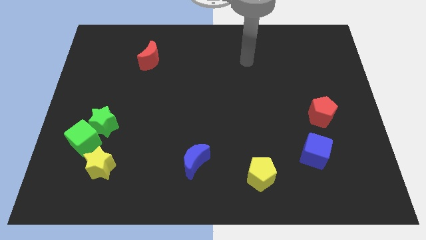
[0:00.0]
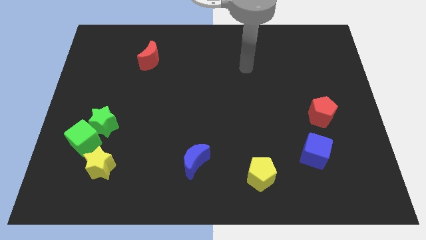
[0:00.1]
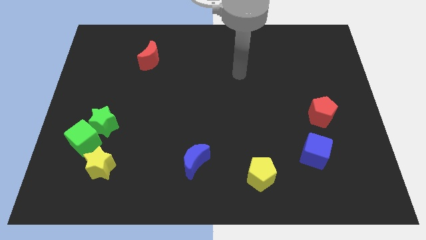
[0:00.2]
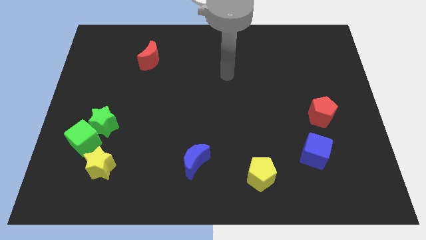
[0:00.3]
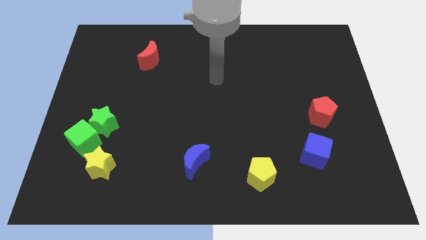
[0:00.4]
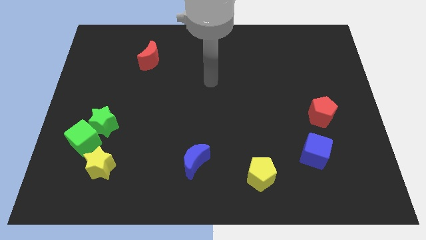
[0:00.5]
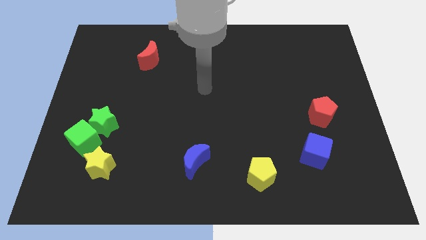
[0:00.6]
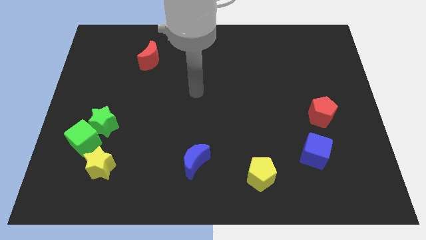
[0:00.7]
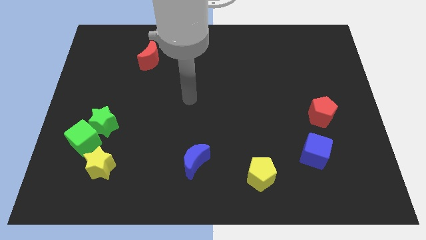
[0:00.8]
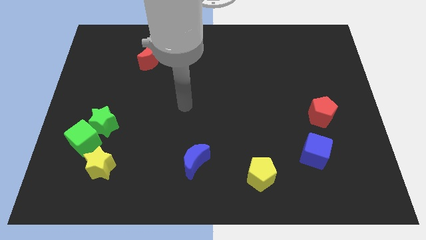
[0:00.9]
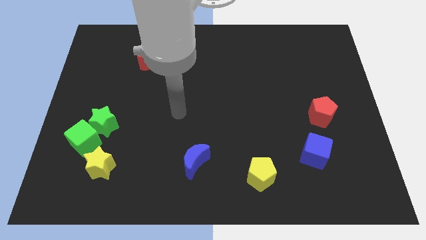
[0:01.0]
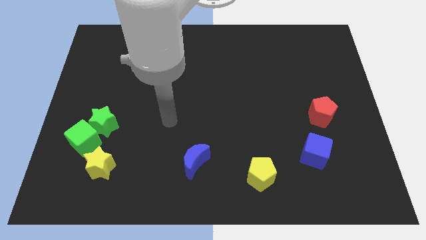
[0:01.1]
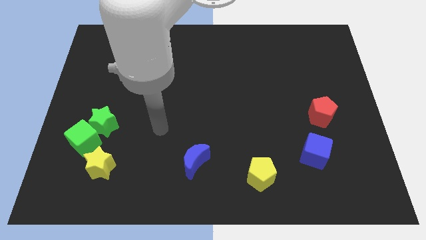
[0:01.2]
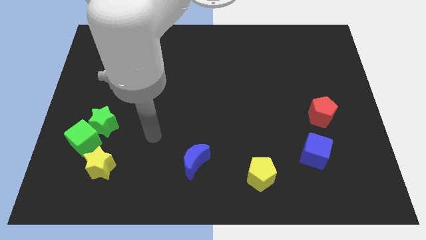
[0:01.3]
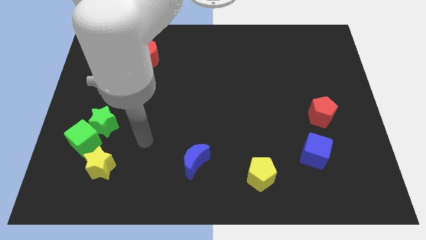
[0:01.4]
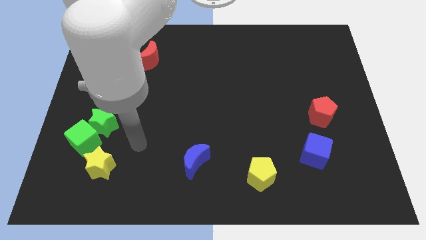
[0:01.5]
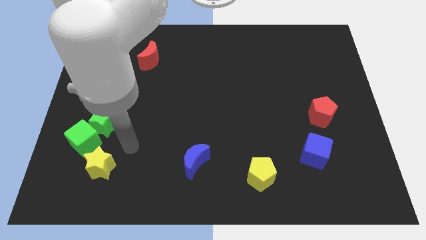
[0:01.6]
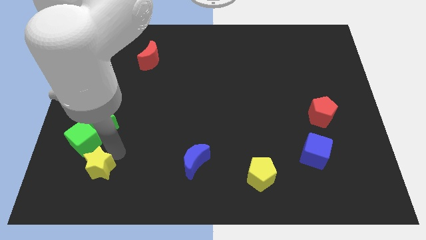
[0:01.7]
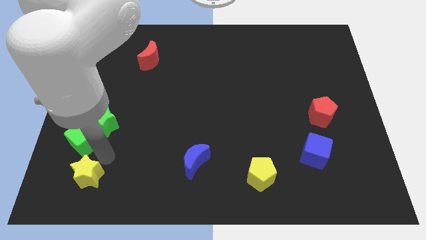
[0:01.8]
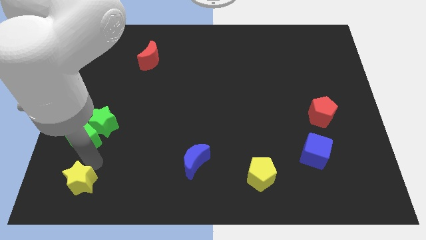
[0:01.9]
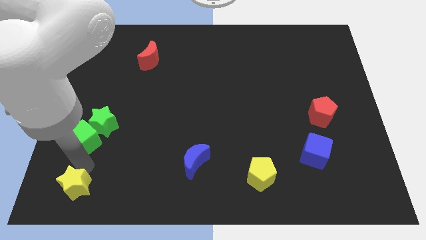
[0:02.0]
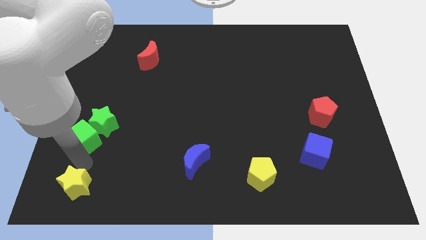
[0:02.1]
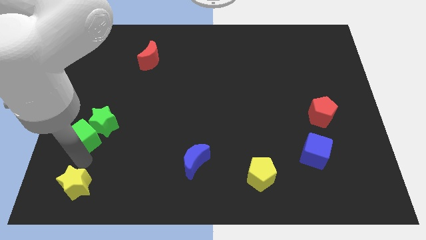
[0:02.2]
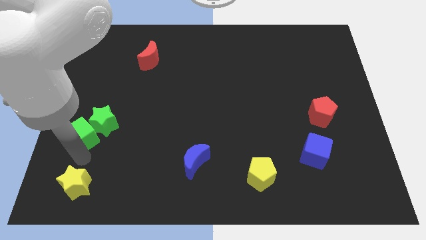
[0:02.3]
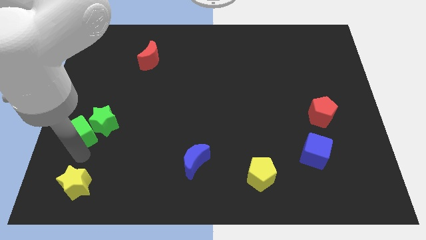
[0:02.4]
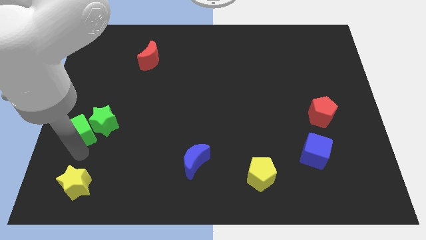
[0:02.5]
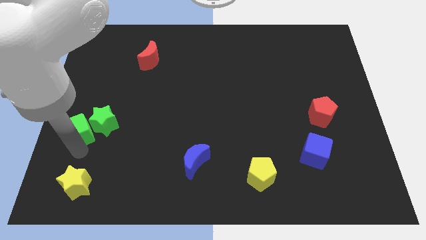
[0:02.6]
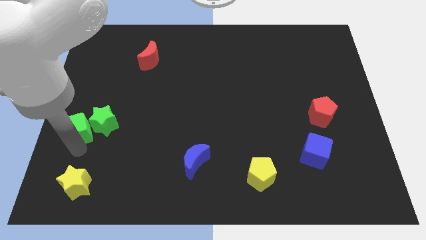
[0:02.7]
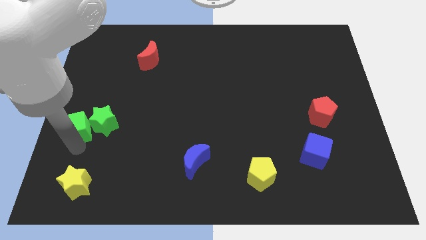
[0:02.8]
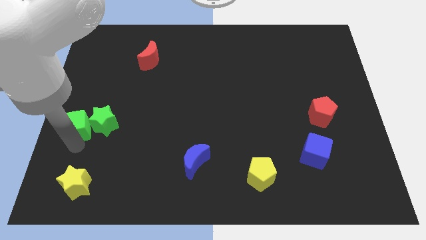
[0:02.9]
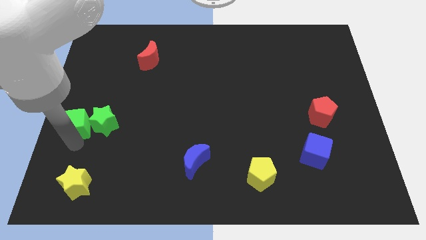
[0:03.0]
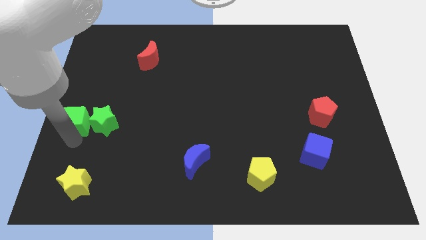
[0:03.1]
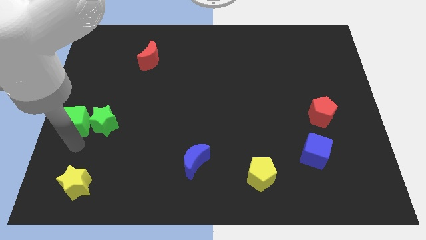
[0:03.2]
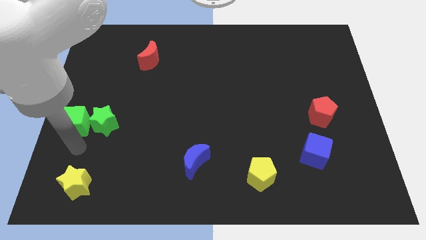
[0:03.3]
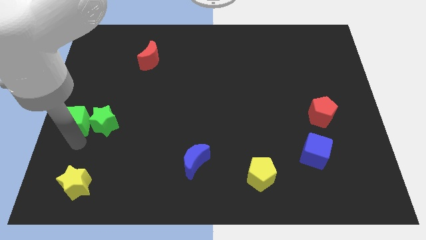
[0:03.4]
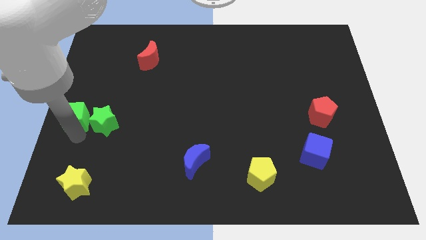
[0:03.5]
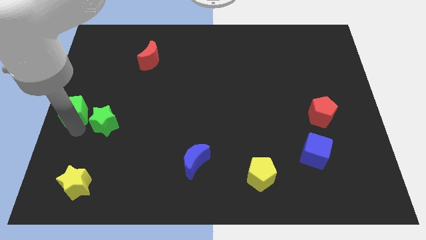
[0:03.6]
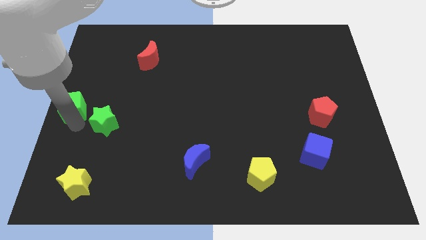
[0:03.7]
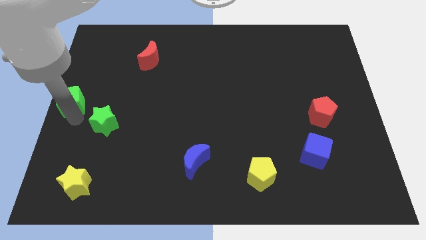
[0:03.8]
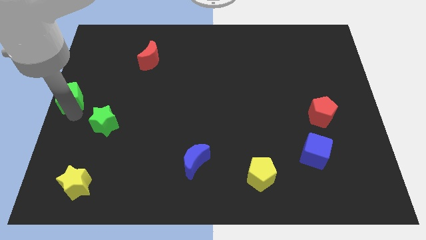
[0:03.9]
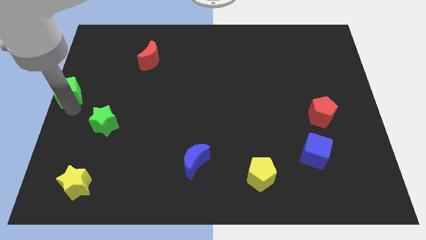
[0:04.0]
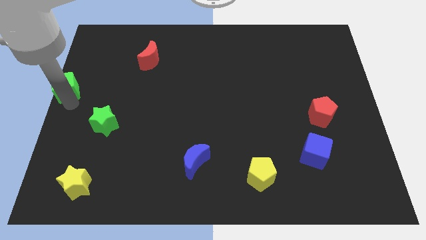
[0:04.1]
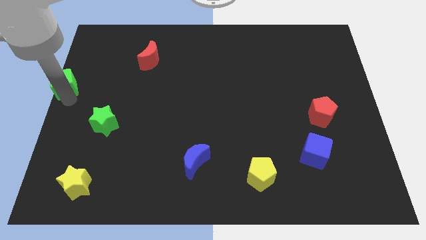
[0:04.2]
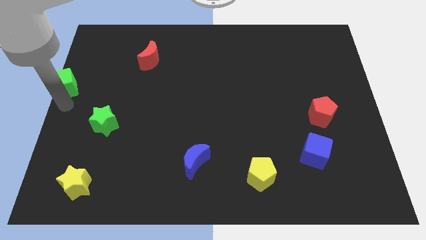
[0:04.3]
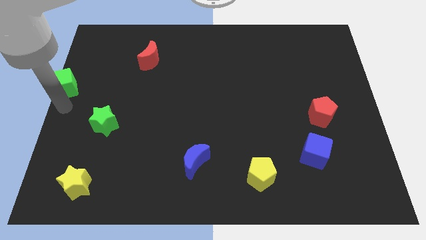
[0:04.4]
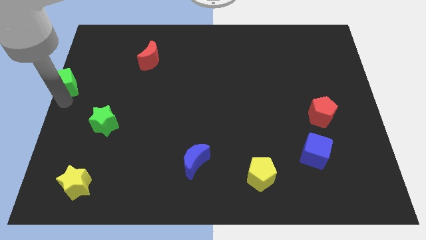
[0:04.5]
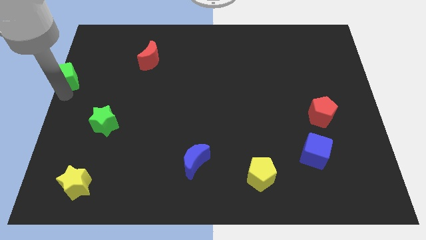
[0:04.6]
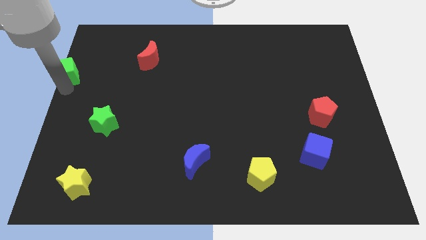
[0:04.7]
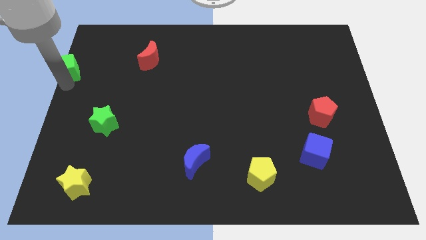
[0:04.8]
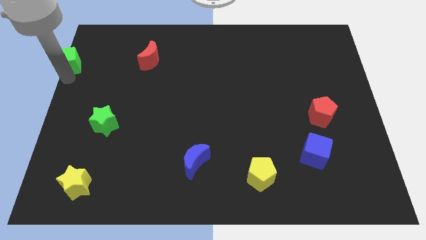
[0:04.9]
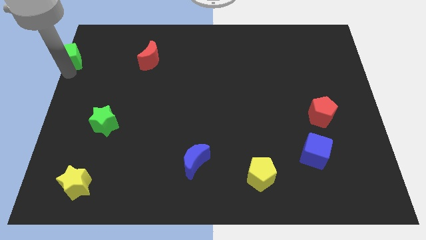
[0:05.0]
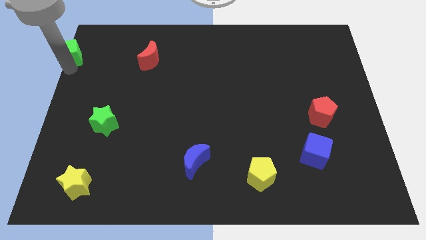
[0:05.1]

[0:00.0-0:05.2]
slide the green cube to the top left of the board

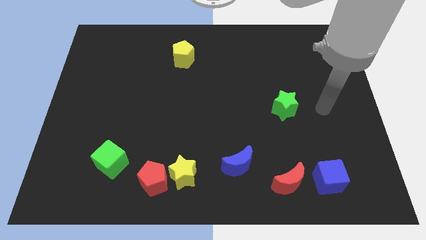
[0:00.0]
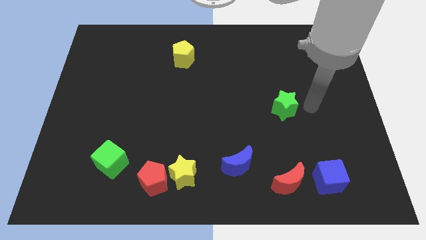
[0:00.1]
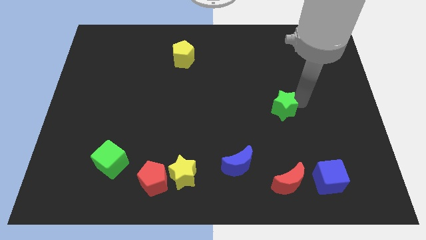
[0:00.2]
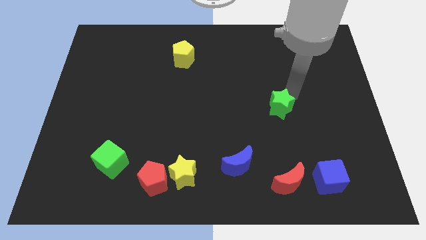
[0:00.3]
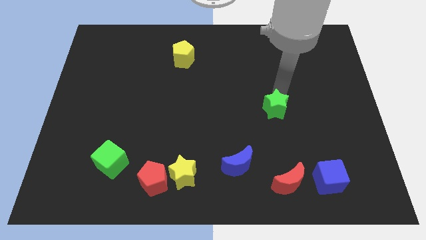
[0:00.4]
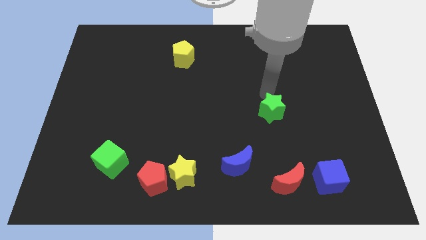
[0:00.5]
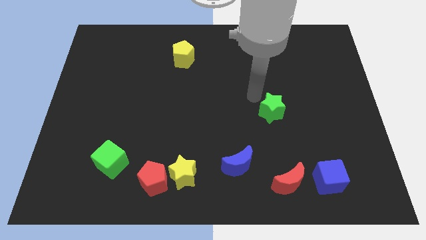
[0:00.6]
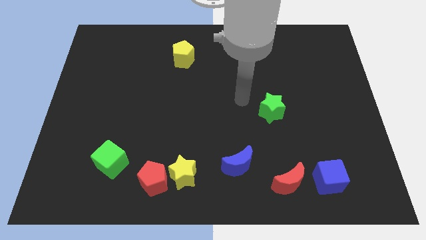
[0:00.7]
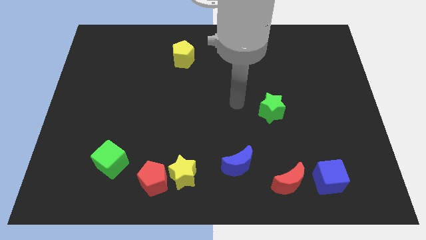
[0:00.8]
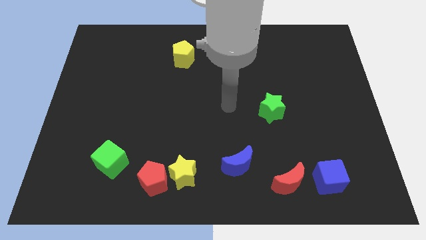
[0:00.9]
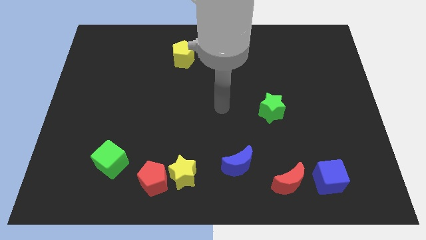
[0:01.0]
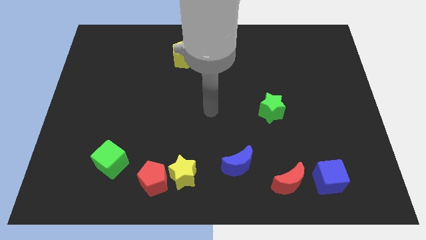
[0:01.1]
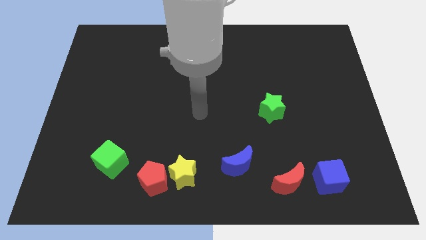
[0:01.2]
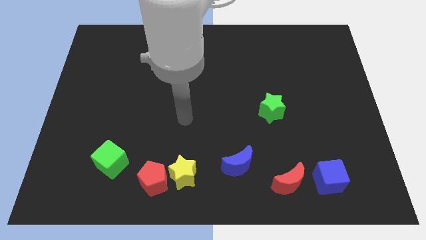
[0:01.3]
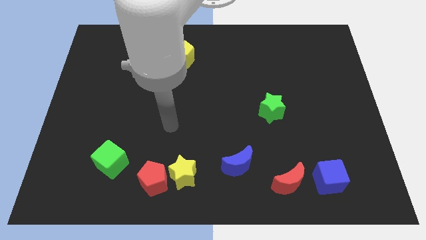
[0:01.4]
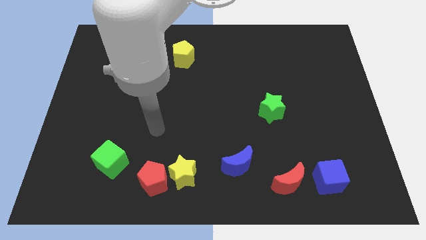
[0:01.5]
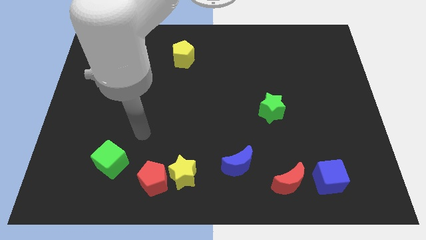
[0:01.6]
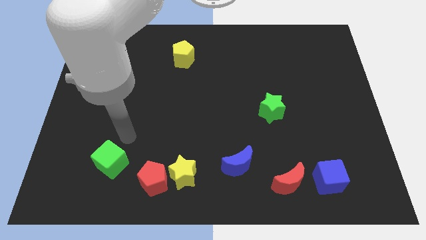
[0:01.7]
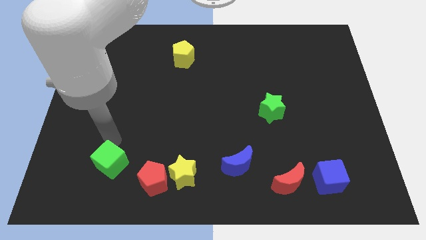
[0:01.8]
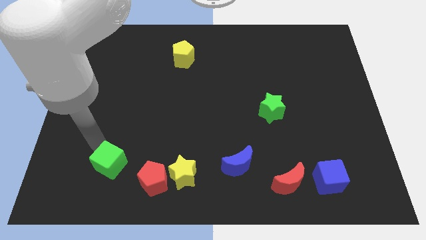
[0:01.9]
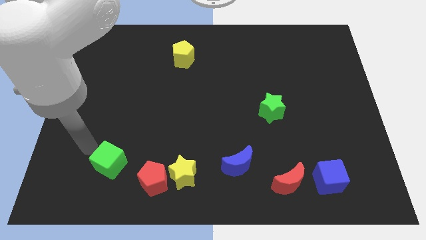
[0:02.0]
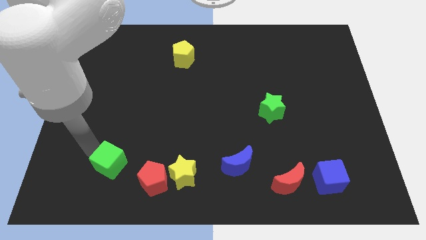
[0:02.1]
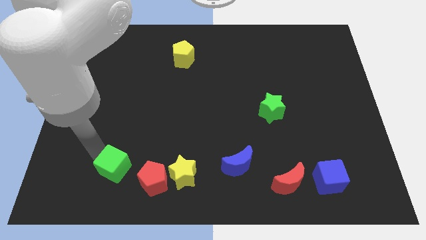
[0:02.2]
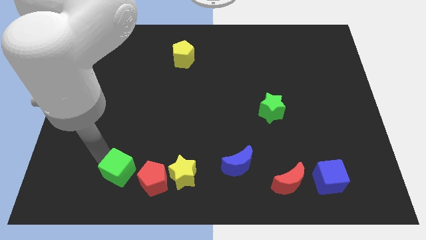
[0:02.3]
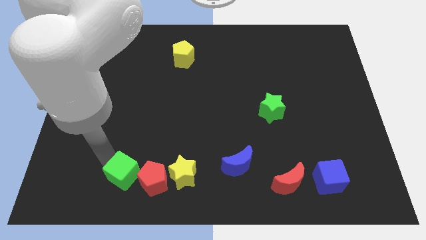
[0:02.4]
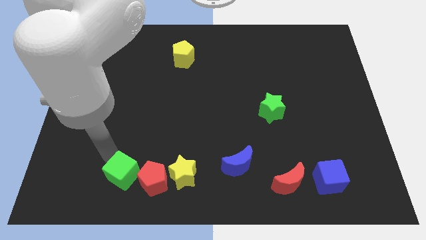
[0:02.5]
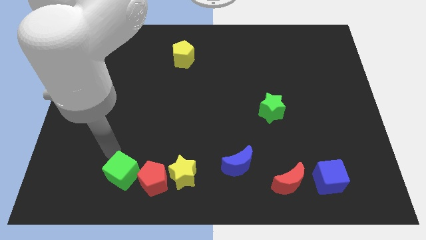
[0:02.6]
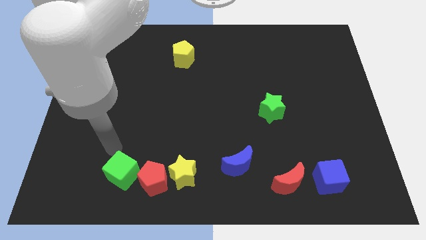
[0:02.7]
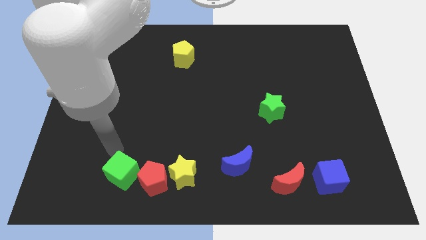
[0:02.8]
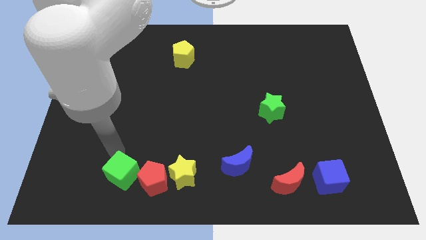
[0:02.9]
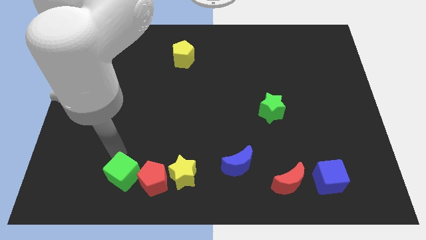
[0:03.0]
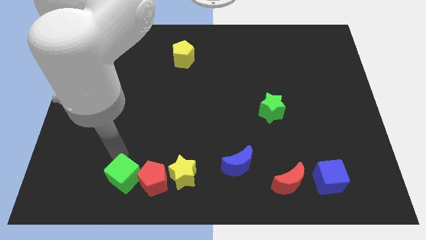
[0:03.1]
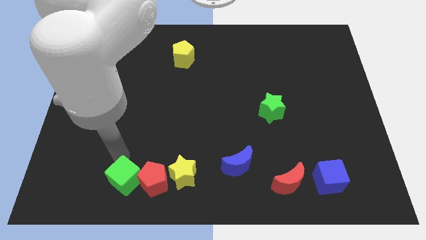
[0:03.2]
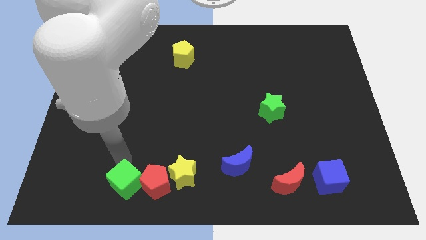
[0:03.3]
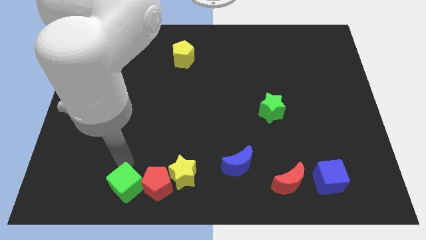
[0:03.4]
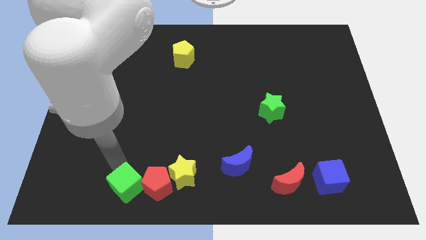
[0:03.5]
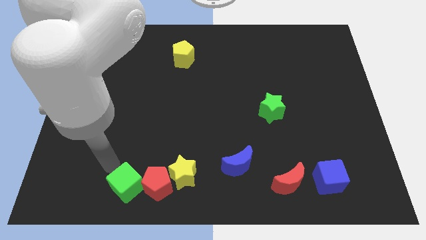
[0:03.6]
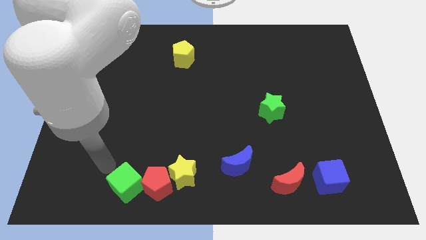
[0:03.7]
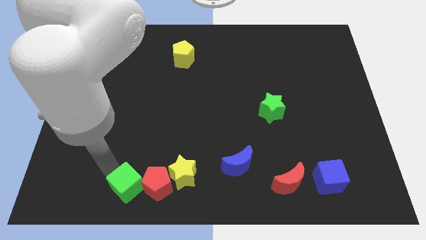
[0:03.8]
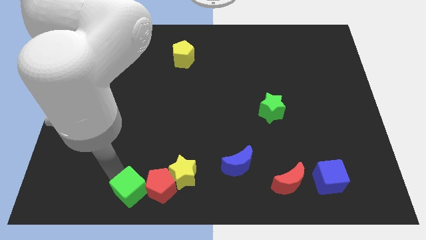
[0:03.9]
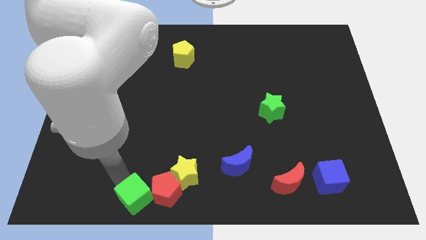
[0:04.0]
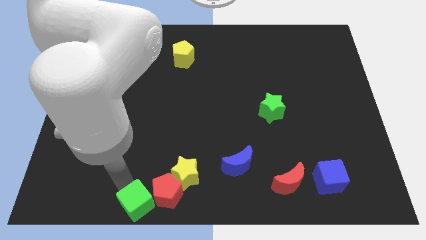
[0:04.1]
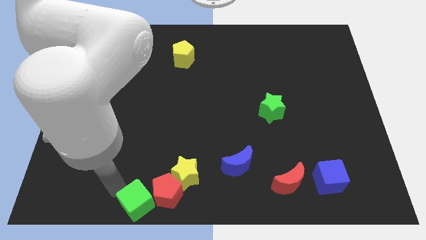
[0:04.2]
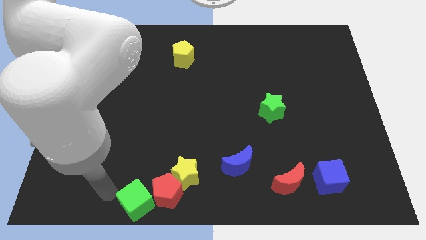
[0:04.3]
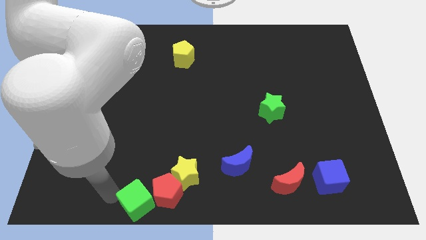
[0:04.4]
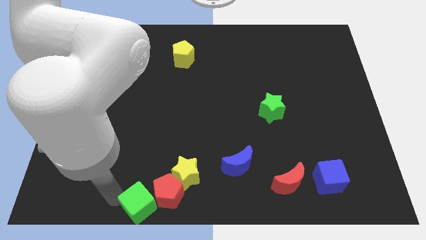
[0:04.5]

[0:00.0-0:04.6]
slide the green cube to the bottom side
